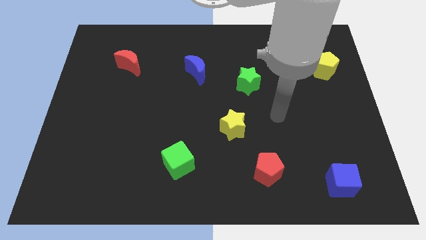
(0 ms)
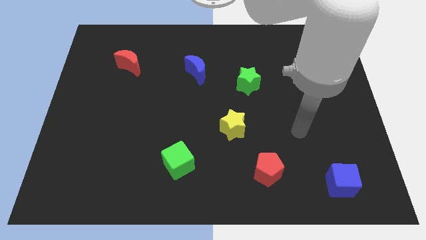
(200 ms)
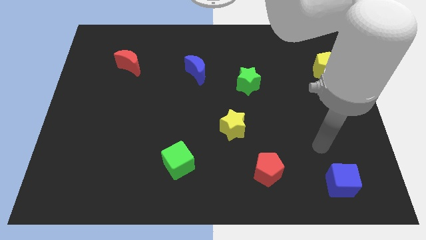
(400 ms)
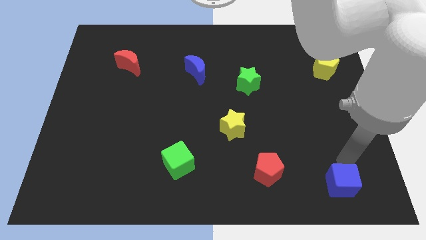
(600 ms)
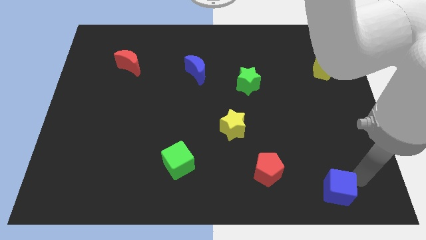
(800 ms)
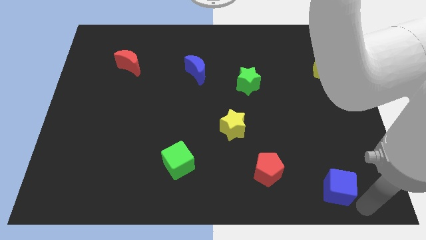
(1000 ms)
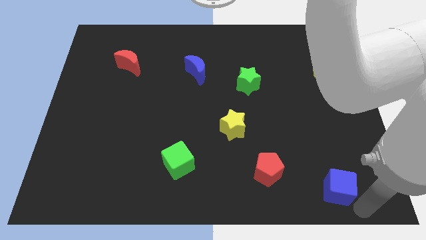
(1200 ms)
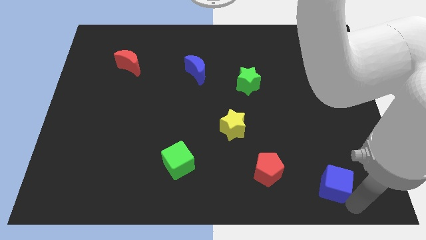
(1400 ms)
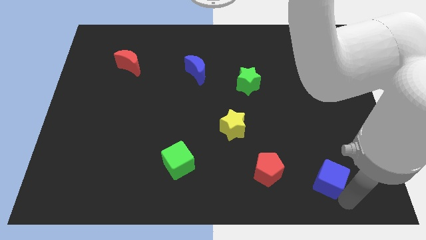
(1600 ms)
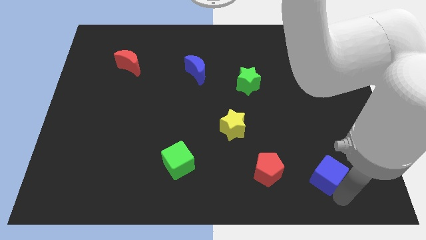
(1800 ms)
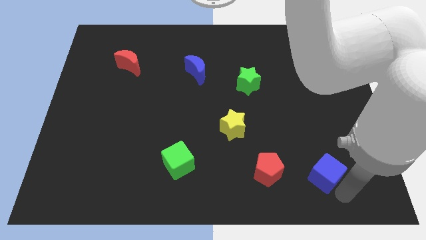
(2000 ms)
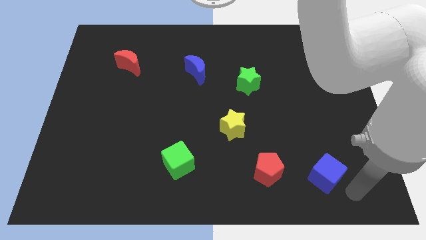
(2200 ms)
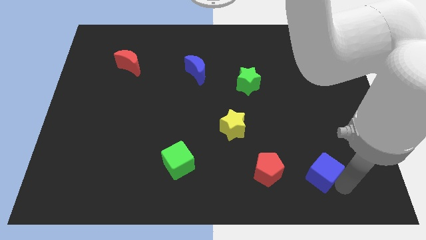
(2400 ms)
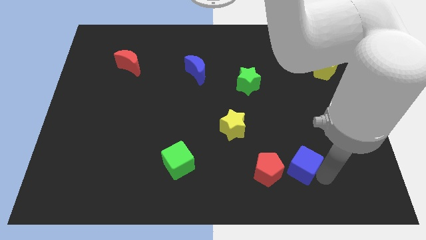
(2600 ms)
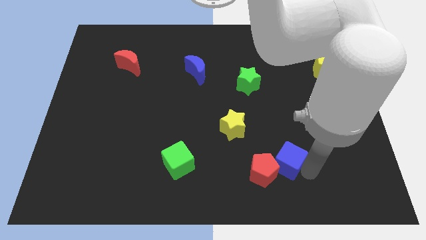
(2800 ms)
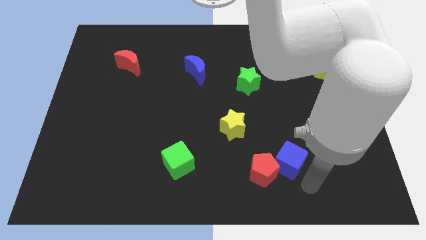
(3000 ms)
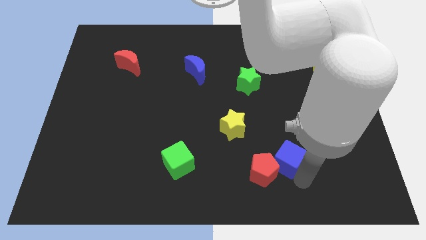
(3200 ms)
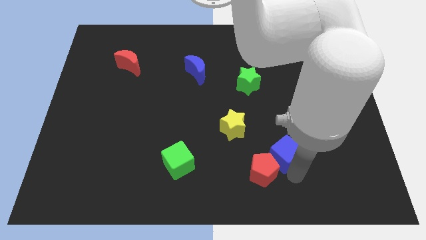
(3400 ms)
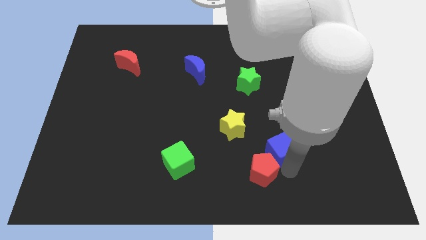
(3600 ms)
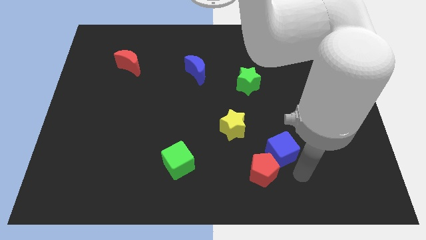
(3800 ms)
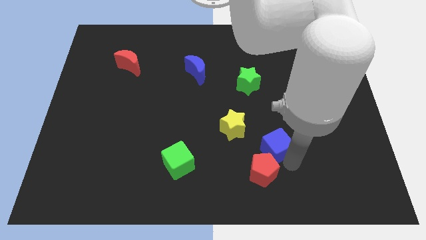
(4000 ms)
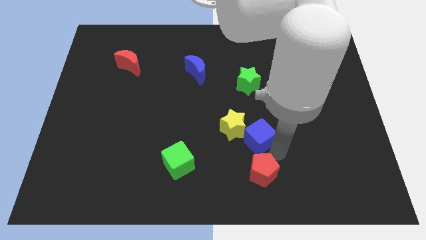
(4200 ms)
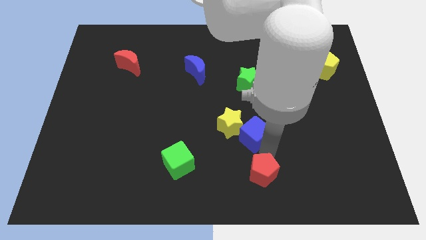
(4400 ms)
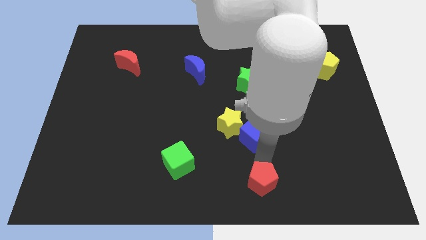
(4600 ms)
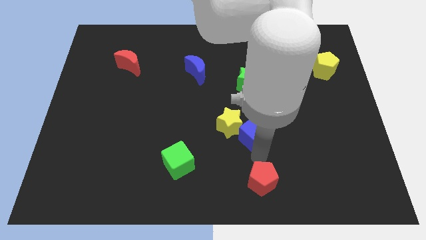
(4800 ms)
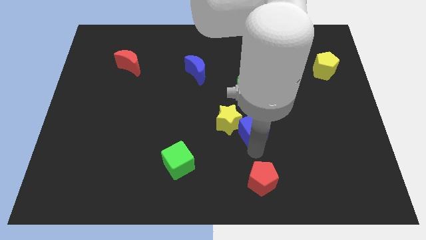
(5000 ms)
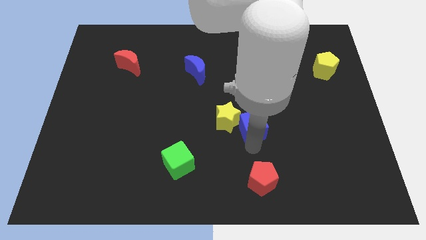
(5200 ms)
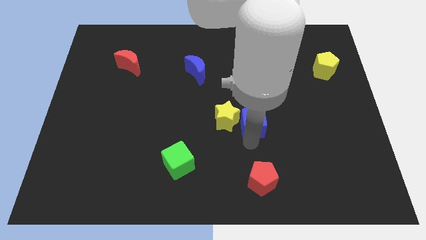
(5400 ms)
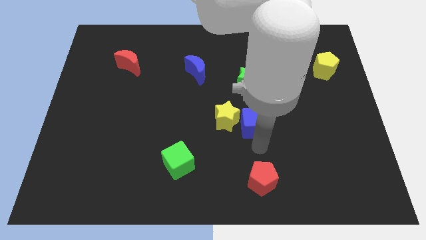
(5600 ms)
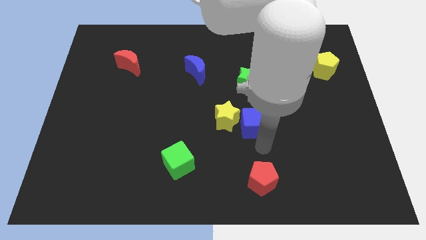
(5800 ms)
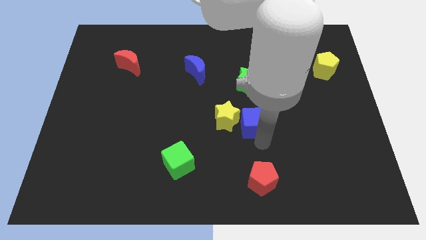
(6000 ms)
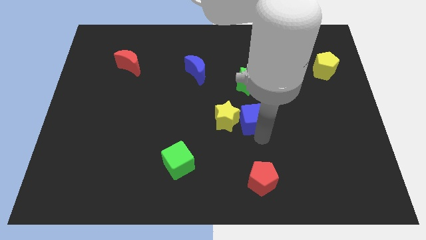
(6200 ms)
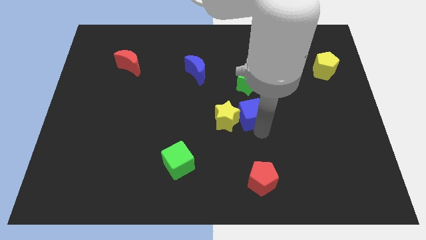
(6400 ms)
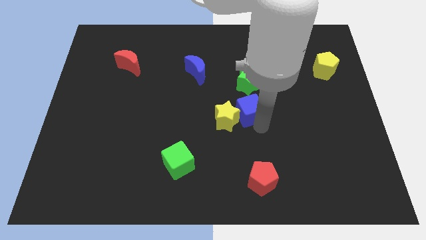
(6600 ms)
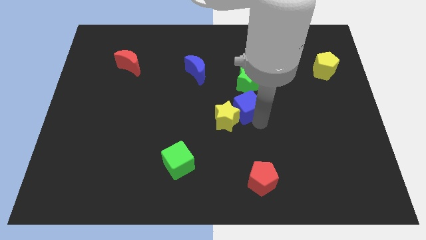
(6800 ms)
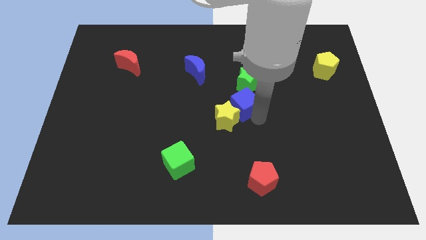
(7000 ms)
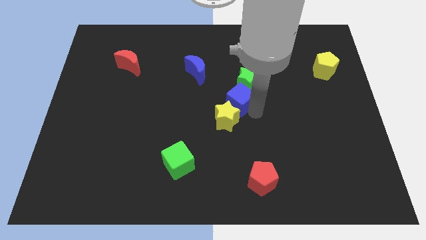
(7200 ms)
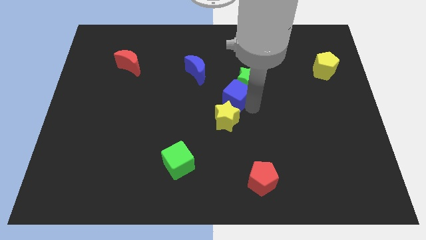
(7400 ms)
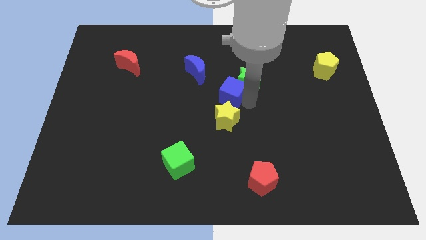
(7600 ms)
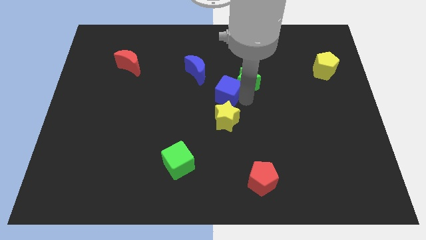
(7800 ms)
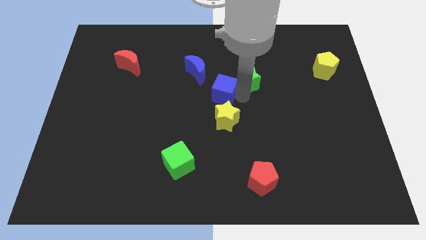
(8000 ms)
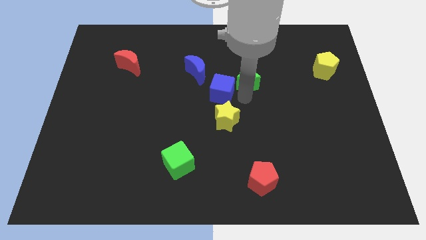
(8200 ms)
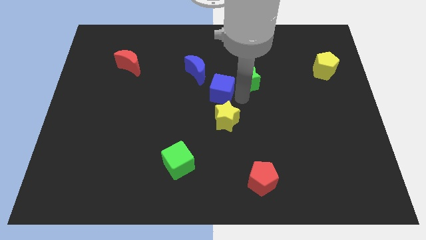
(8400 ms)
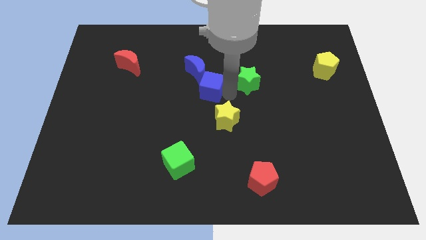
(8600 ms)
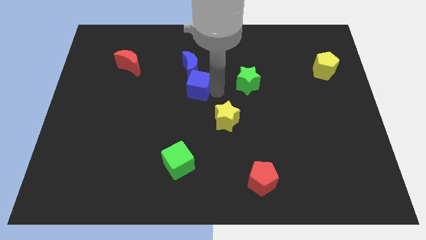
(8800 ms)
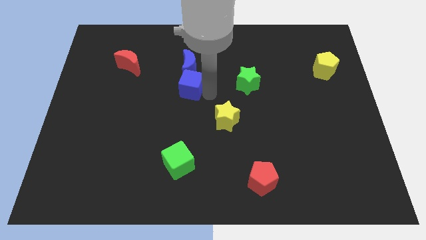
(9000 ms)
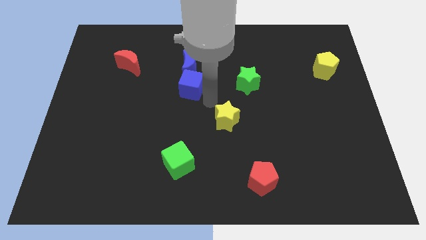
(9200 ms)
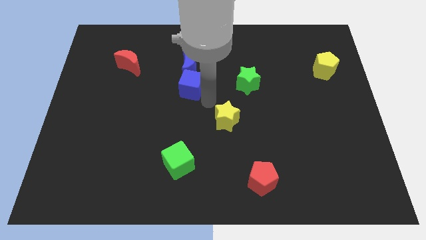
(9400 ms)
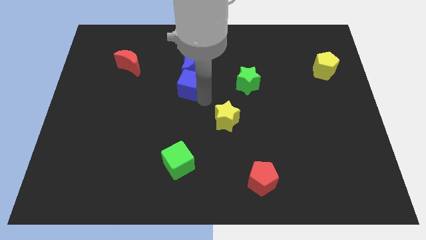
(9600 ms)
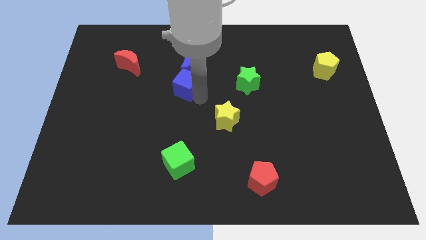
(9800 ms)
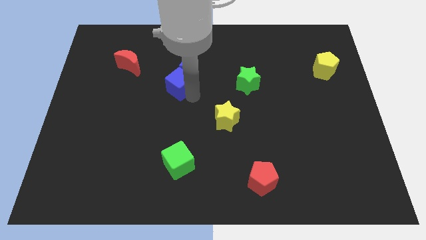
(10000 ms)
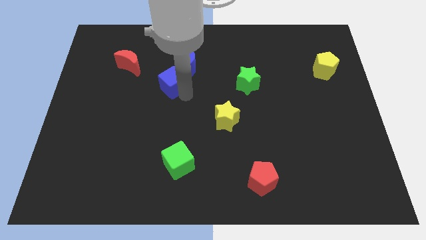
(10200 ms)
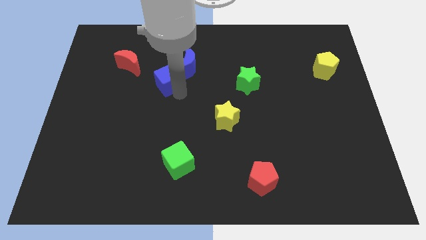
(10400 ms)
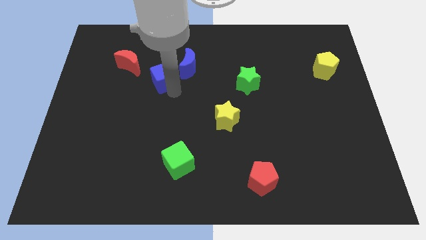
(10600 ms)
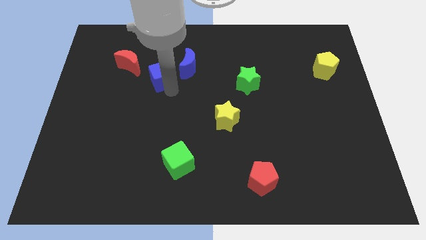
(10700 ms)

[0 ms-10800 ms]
slide the blue cube to the right of the red moon

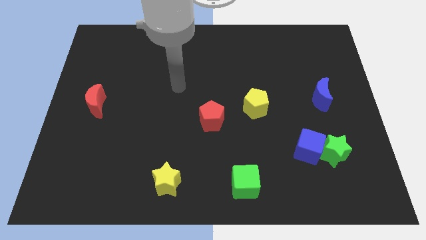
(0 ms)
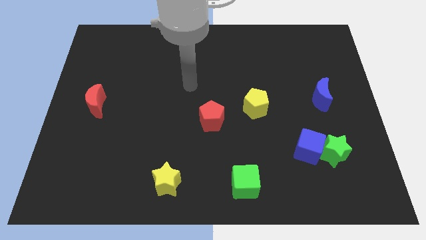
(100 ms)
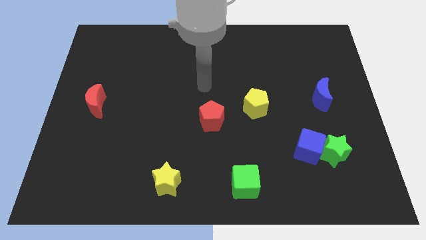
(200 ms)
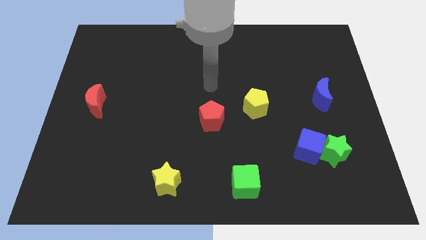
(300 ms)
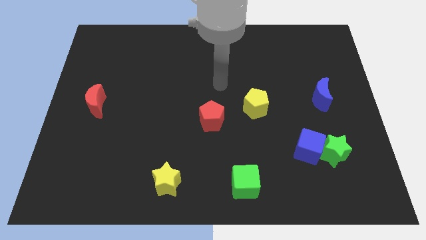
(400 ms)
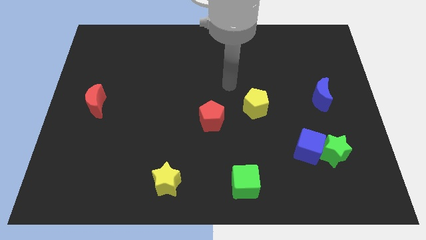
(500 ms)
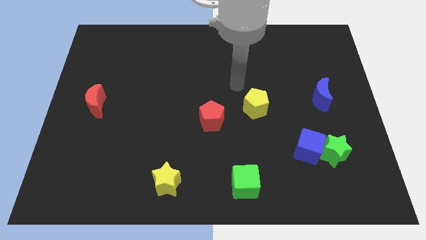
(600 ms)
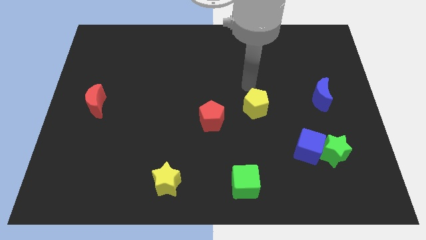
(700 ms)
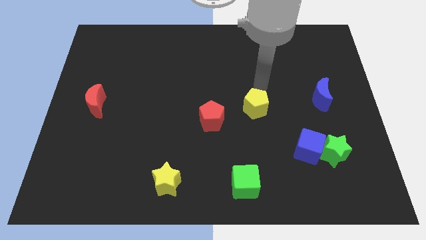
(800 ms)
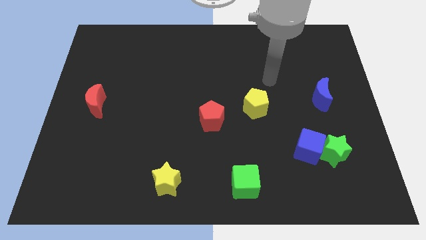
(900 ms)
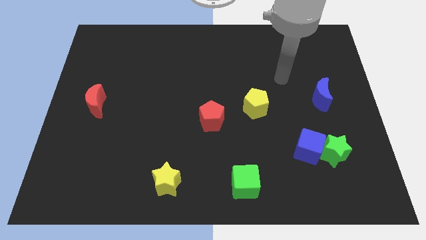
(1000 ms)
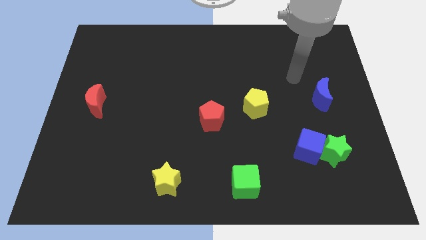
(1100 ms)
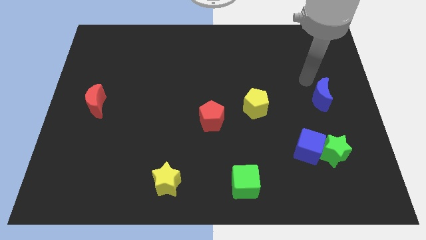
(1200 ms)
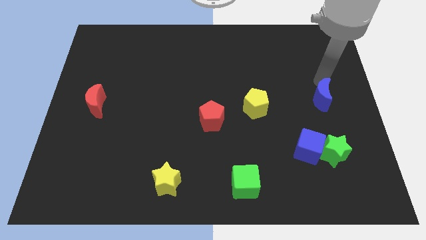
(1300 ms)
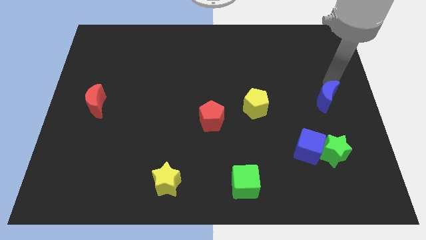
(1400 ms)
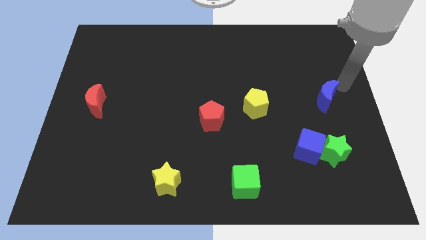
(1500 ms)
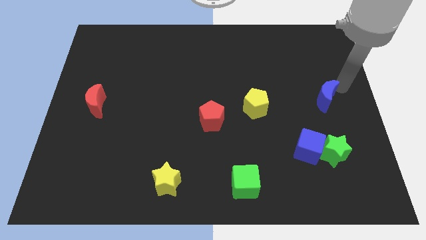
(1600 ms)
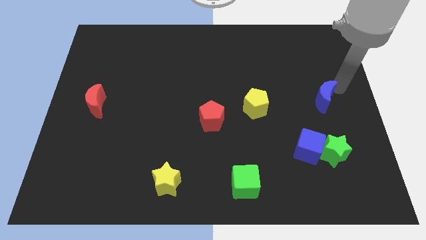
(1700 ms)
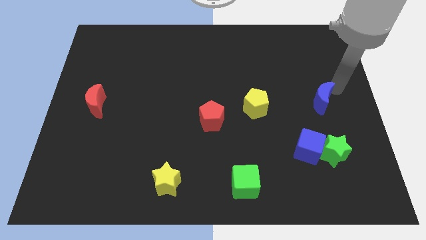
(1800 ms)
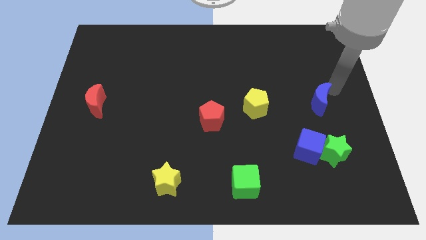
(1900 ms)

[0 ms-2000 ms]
push the blue moon to the top side of the blue cube

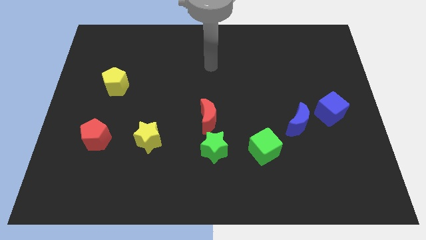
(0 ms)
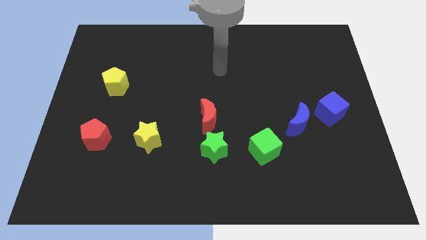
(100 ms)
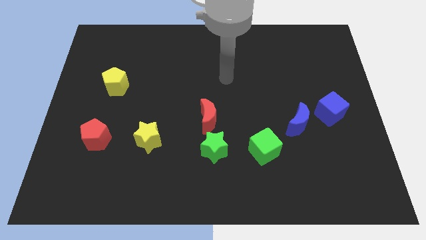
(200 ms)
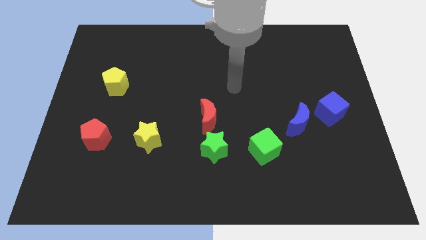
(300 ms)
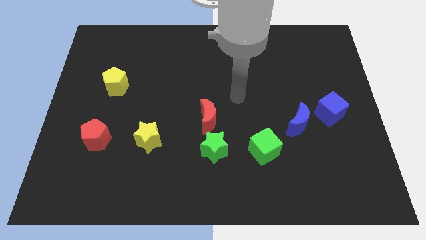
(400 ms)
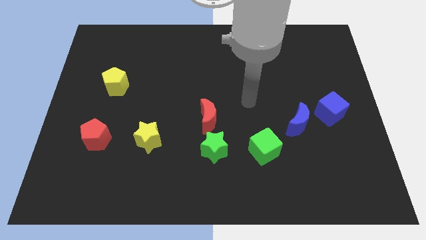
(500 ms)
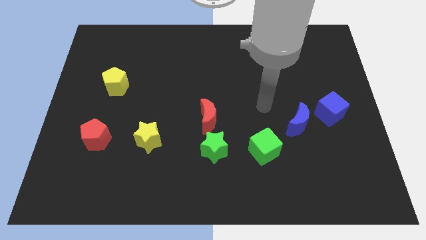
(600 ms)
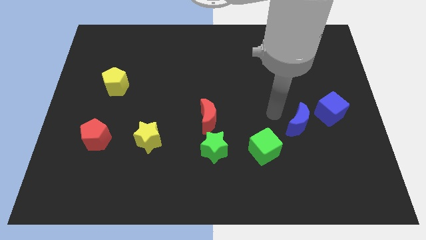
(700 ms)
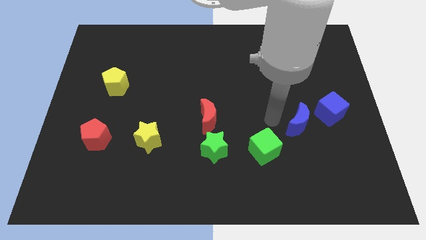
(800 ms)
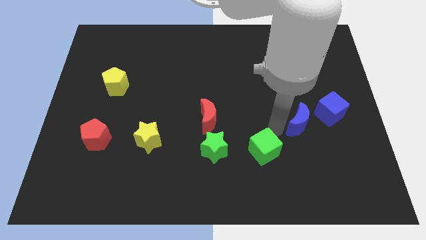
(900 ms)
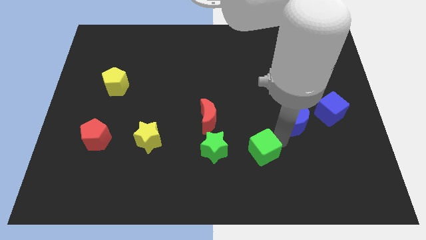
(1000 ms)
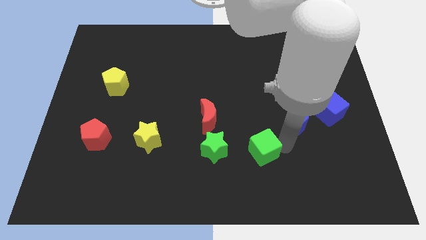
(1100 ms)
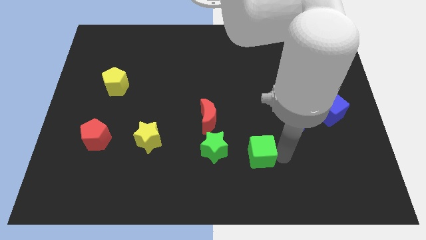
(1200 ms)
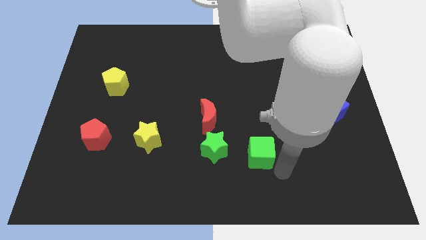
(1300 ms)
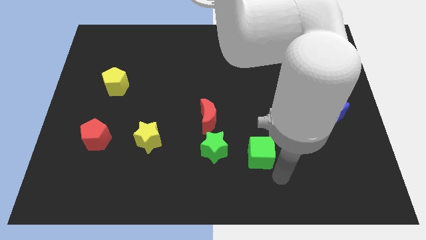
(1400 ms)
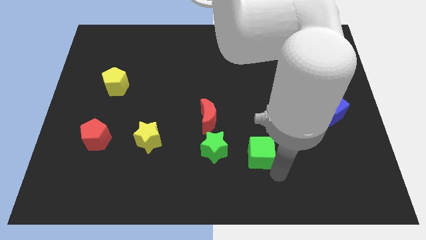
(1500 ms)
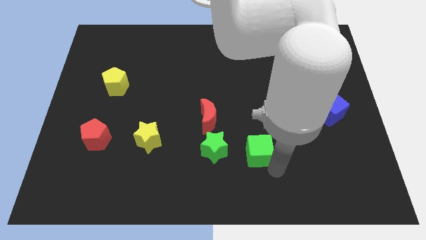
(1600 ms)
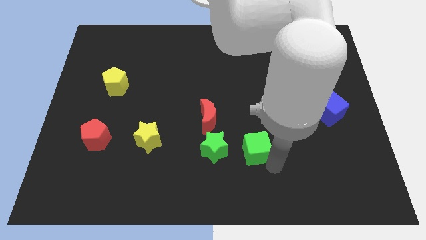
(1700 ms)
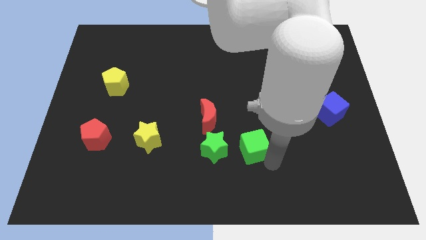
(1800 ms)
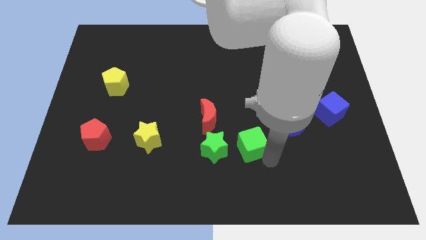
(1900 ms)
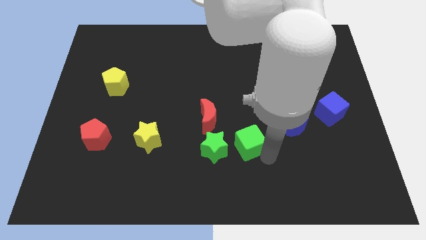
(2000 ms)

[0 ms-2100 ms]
move the green cube to the top right side of the green star
